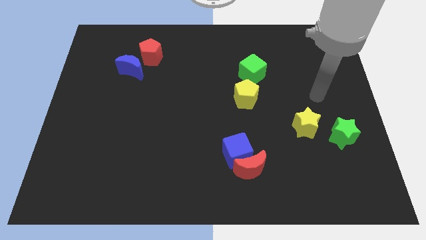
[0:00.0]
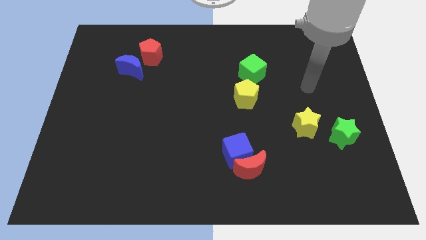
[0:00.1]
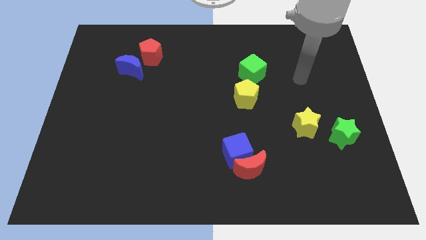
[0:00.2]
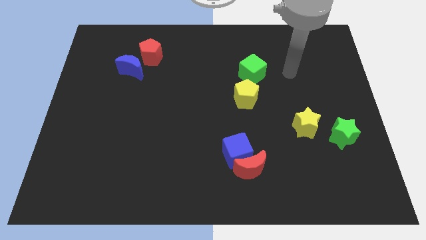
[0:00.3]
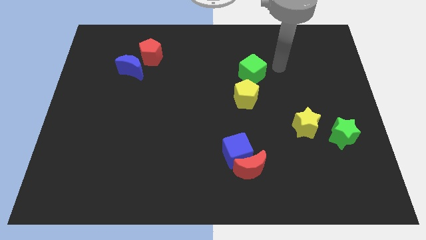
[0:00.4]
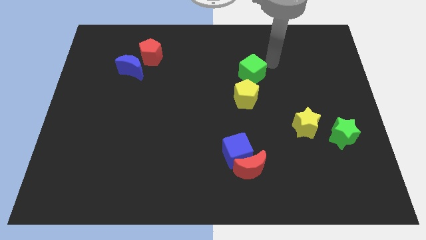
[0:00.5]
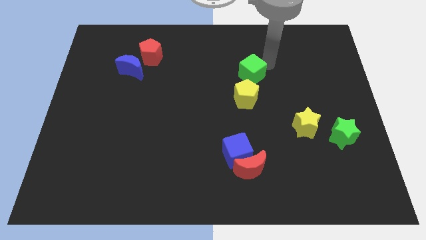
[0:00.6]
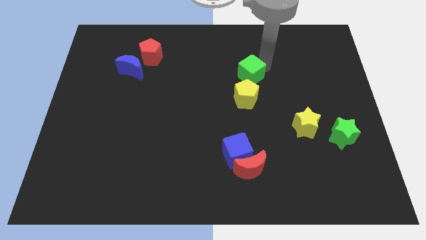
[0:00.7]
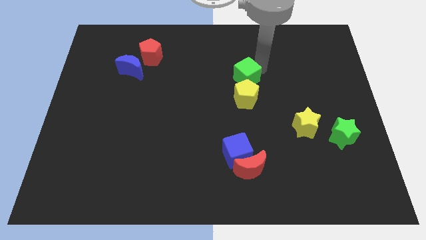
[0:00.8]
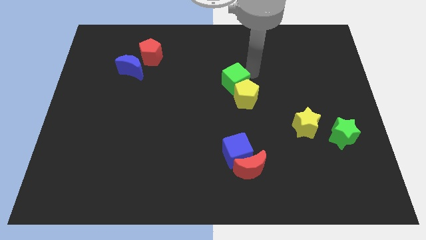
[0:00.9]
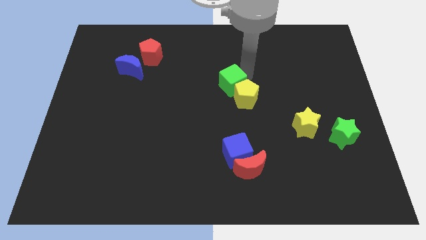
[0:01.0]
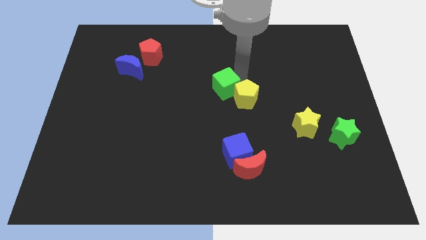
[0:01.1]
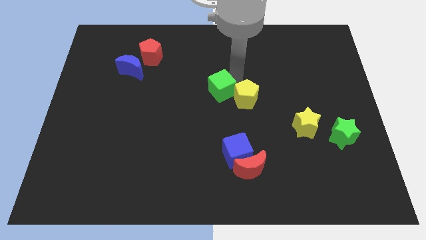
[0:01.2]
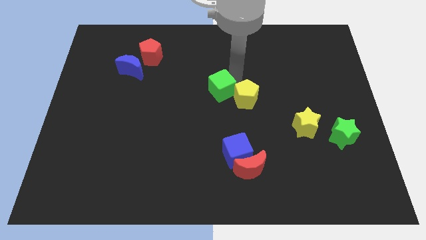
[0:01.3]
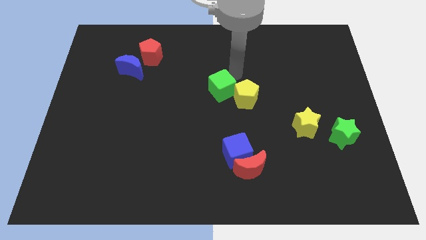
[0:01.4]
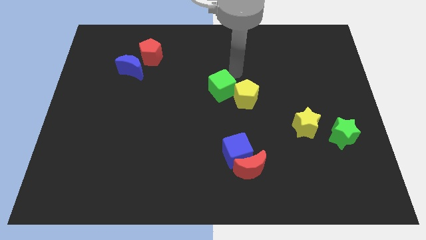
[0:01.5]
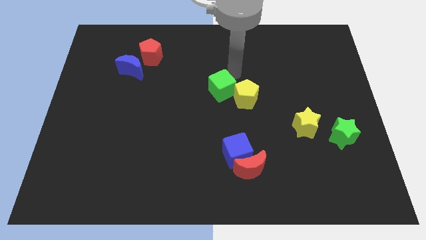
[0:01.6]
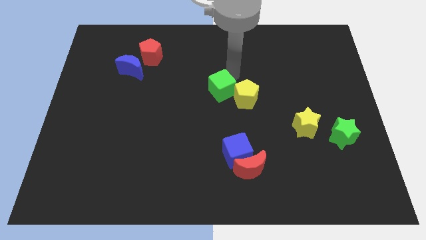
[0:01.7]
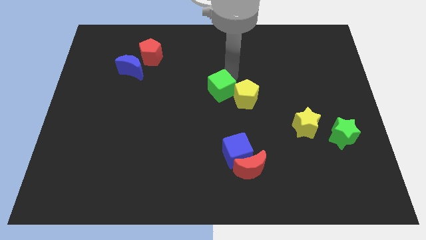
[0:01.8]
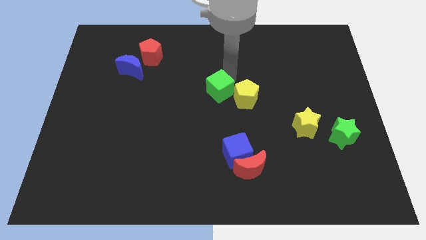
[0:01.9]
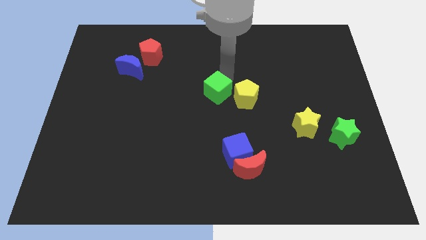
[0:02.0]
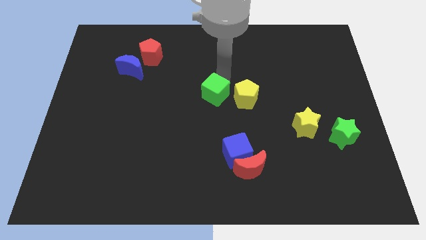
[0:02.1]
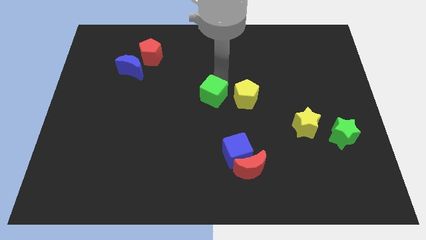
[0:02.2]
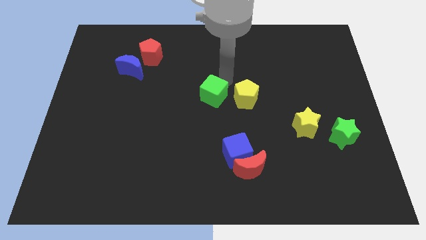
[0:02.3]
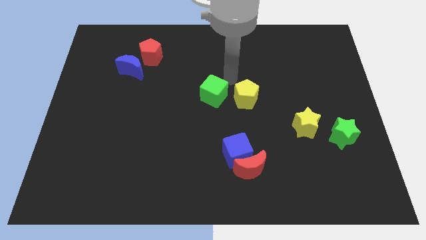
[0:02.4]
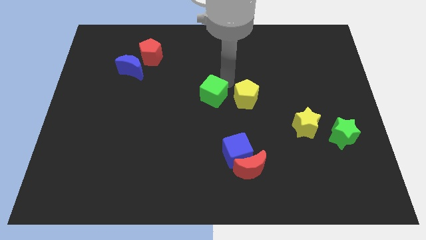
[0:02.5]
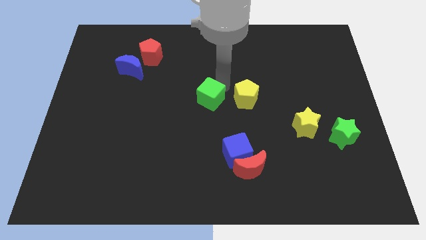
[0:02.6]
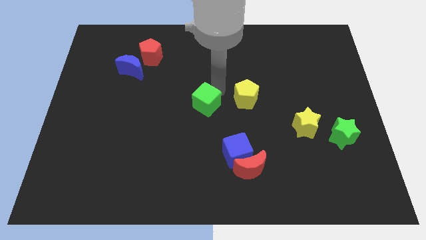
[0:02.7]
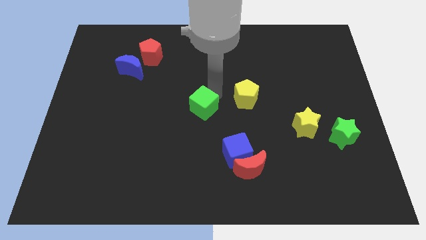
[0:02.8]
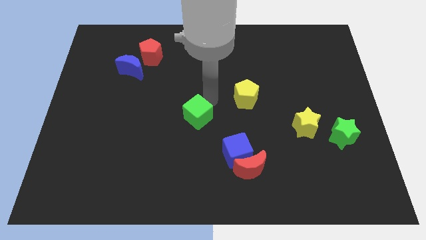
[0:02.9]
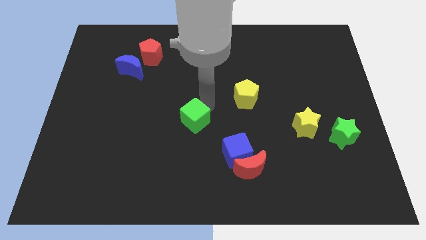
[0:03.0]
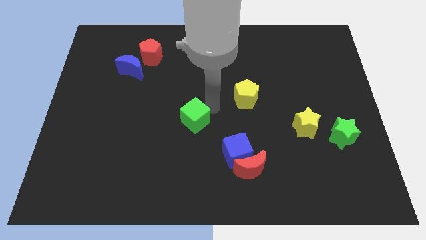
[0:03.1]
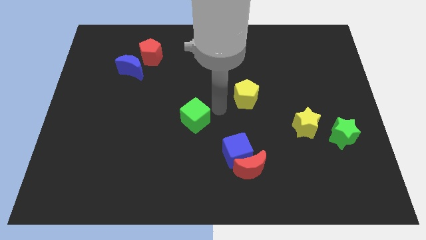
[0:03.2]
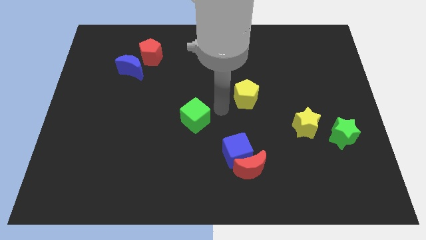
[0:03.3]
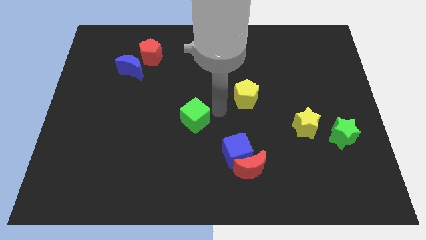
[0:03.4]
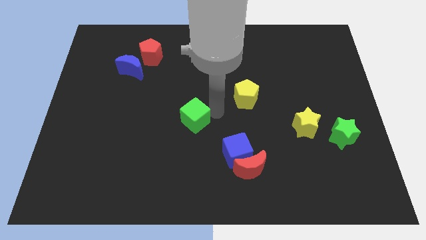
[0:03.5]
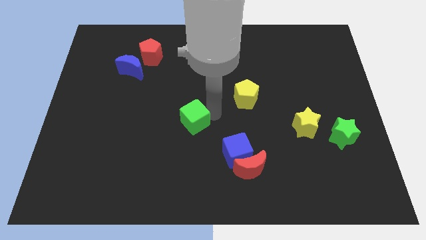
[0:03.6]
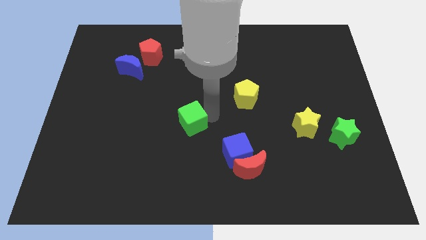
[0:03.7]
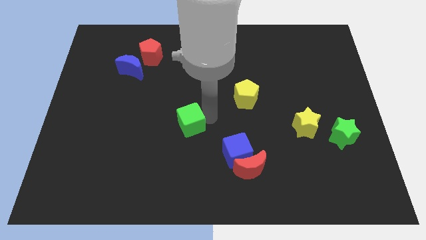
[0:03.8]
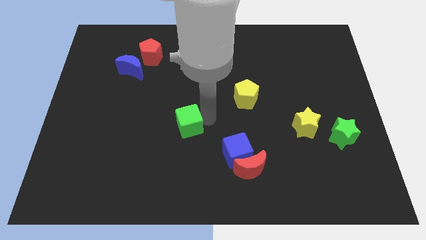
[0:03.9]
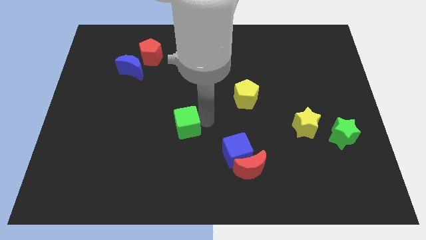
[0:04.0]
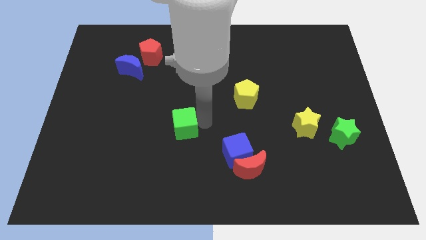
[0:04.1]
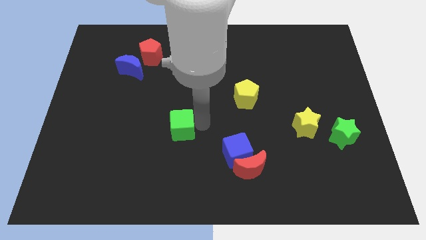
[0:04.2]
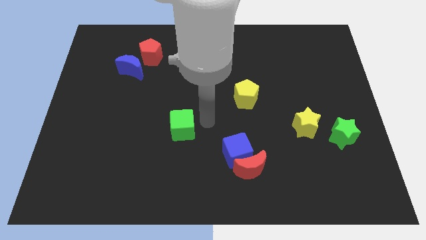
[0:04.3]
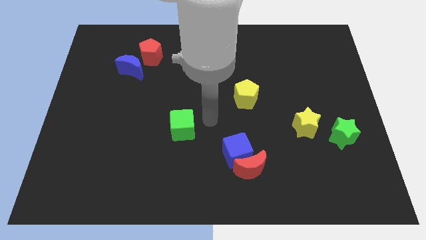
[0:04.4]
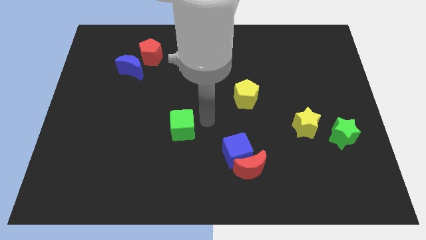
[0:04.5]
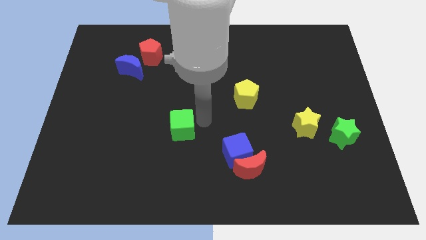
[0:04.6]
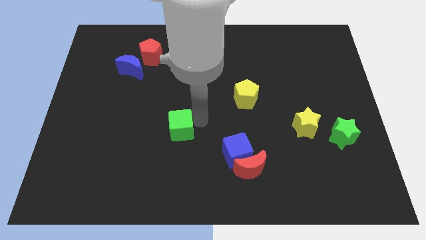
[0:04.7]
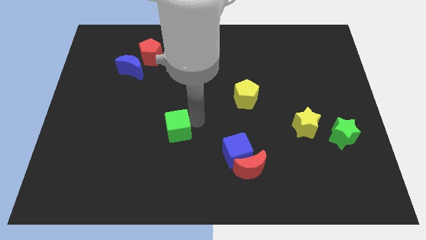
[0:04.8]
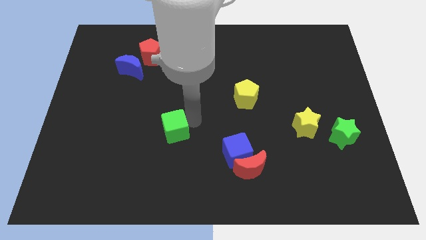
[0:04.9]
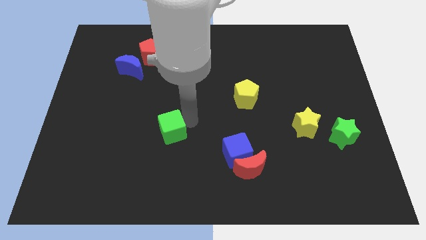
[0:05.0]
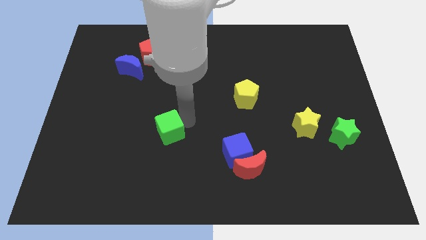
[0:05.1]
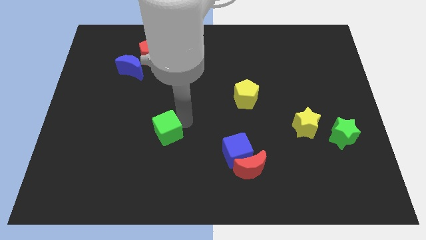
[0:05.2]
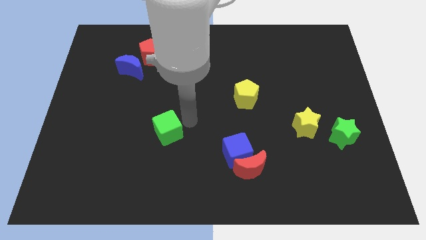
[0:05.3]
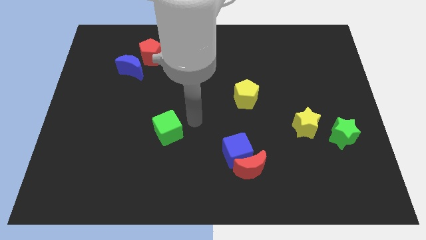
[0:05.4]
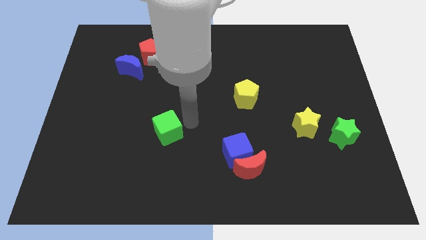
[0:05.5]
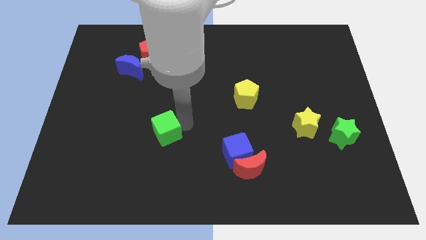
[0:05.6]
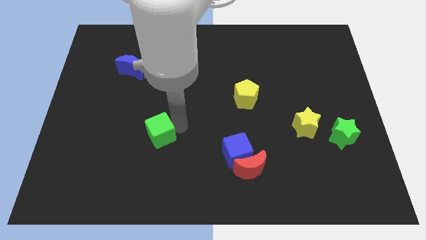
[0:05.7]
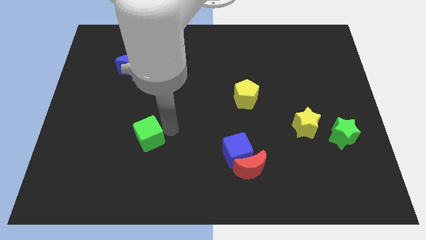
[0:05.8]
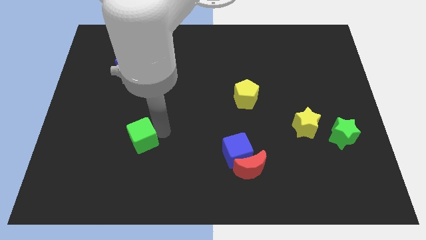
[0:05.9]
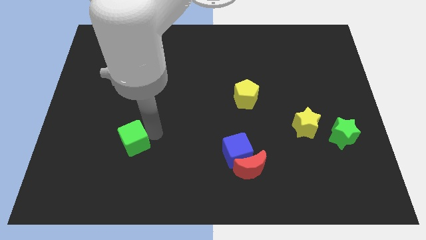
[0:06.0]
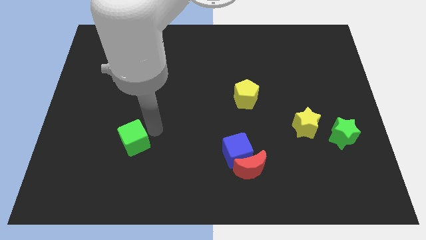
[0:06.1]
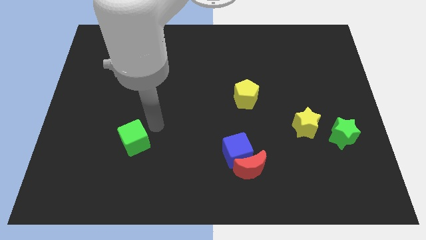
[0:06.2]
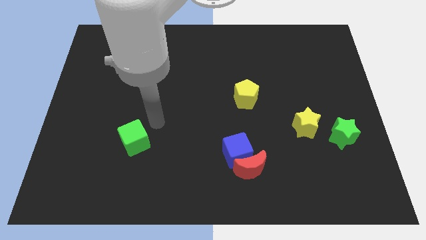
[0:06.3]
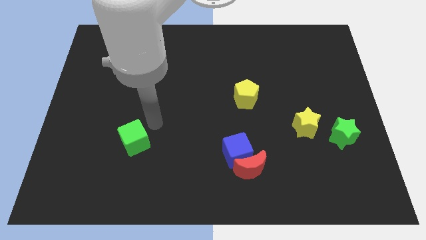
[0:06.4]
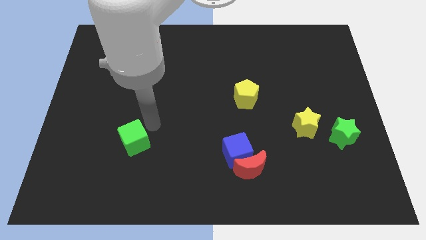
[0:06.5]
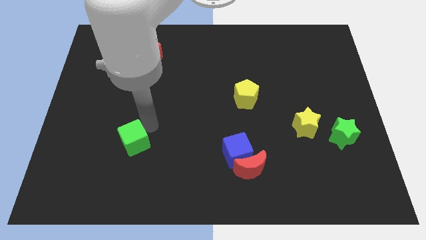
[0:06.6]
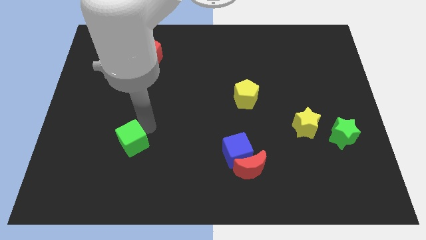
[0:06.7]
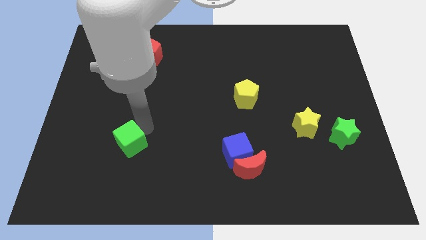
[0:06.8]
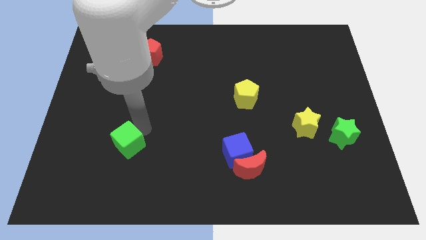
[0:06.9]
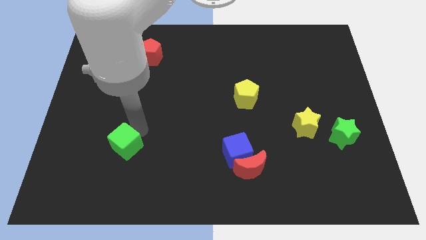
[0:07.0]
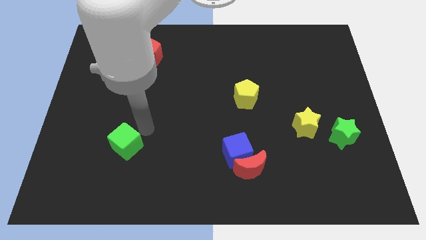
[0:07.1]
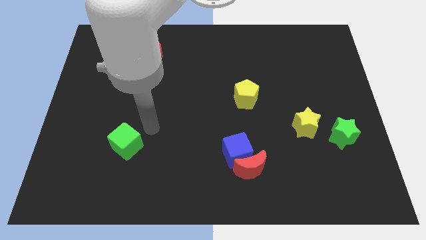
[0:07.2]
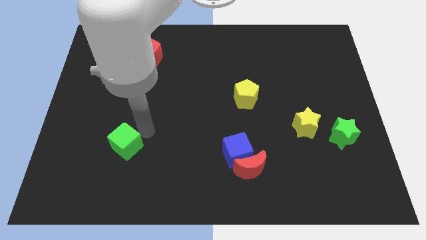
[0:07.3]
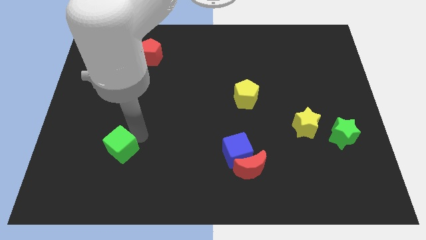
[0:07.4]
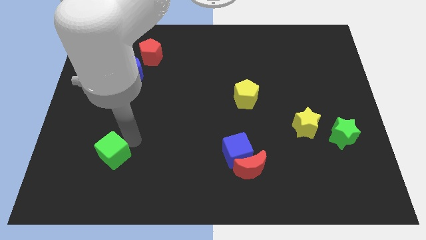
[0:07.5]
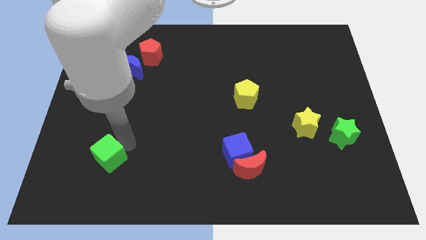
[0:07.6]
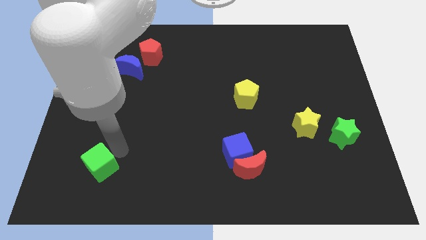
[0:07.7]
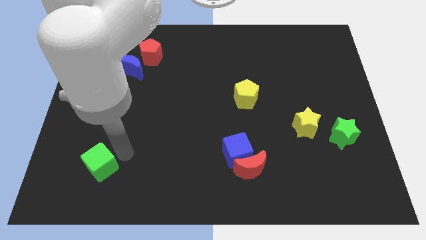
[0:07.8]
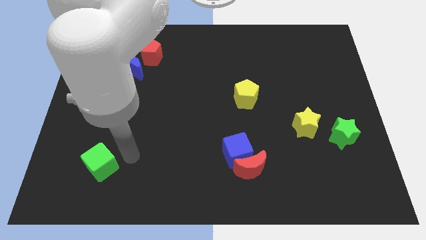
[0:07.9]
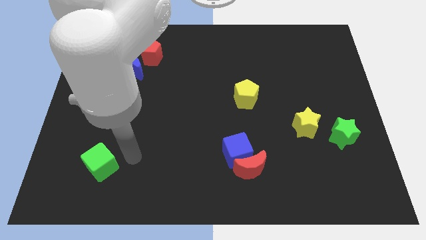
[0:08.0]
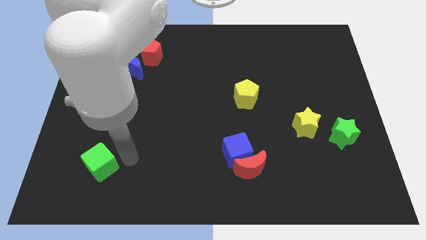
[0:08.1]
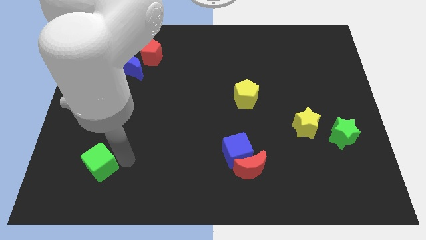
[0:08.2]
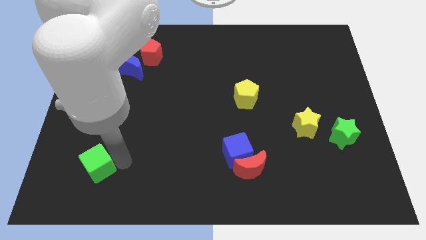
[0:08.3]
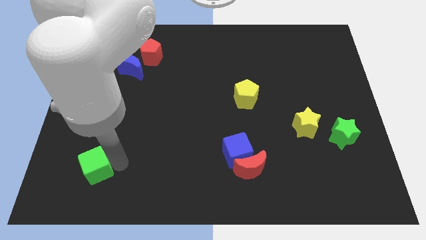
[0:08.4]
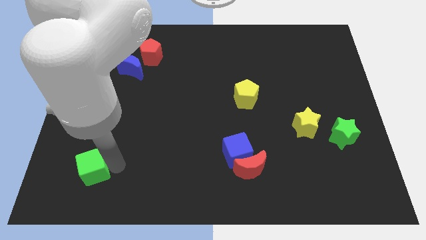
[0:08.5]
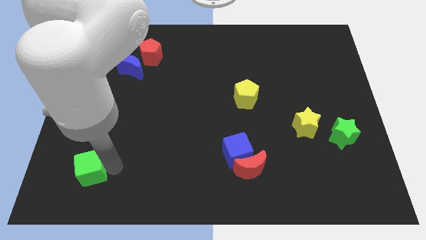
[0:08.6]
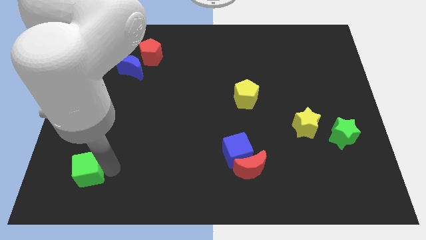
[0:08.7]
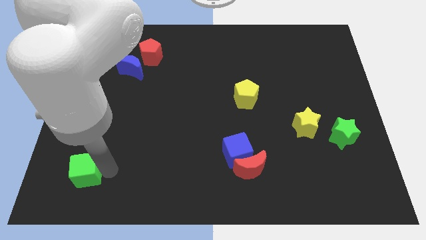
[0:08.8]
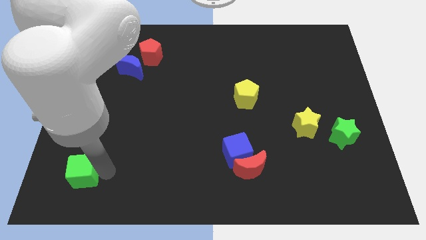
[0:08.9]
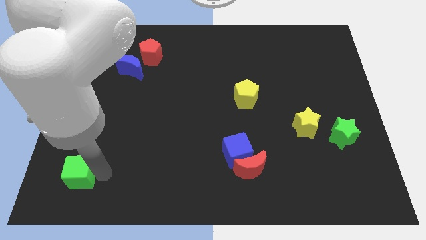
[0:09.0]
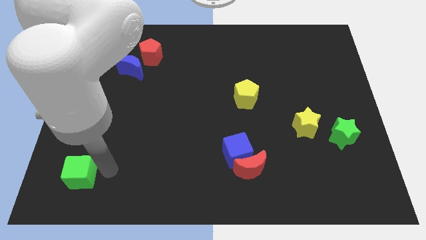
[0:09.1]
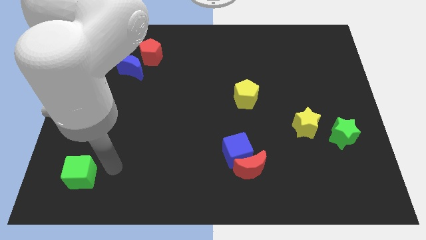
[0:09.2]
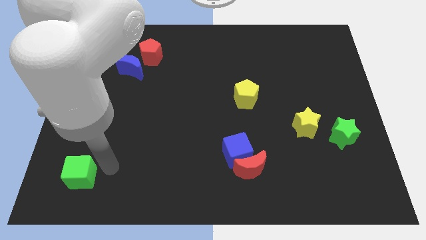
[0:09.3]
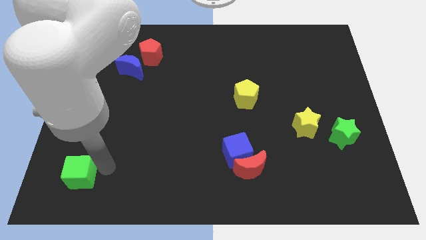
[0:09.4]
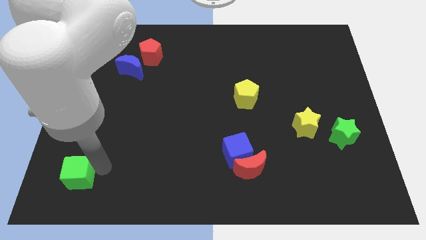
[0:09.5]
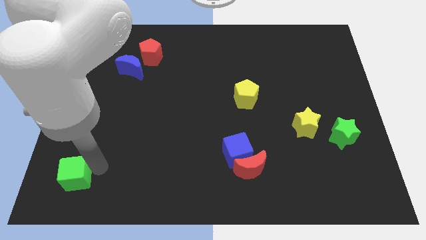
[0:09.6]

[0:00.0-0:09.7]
push the green cube to the bottom left of the board
